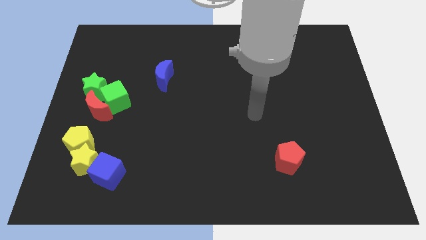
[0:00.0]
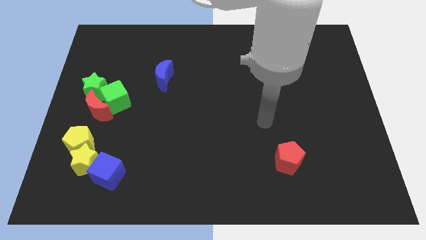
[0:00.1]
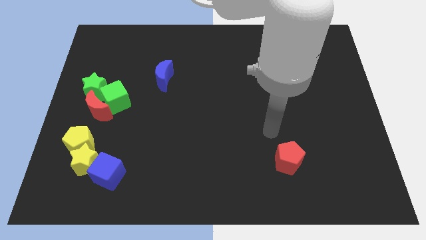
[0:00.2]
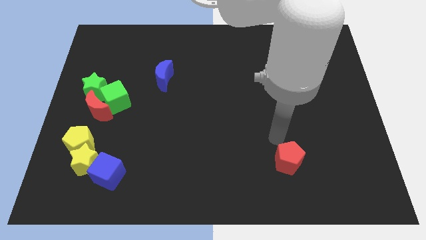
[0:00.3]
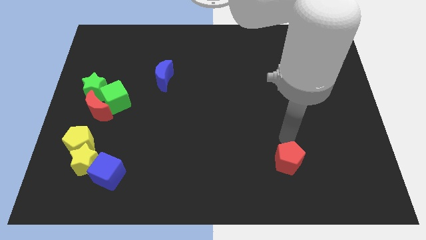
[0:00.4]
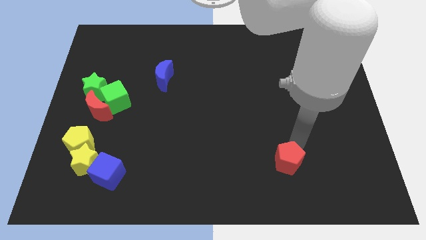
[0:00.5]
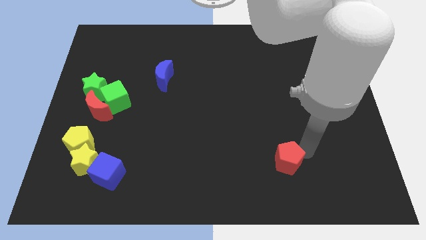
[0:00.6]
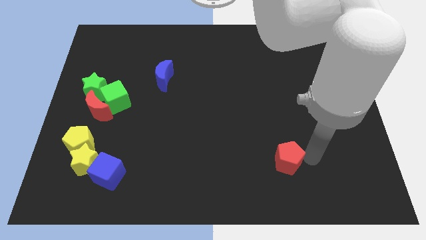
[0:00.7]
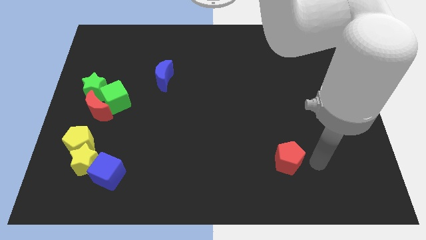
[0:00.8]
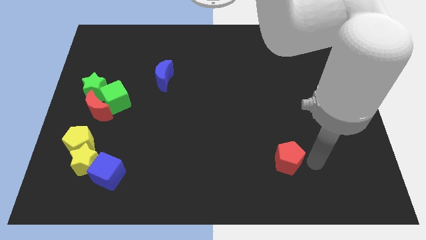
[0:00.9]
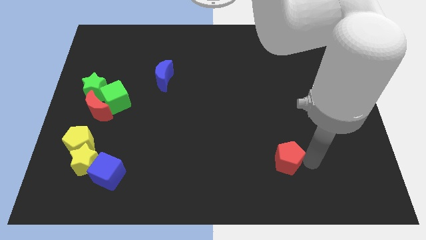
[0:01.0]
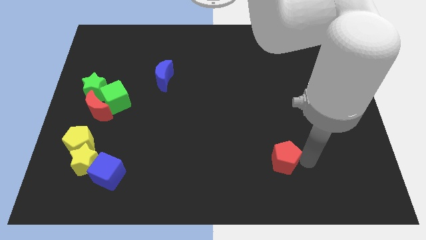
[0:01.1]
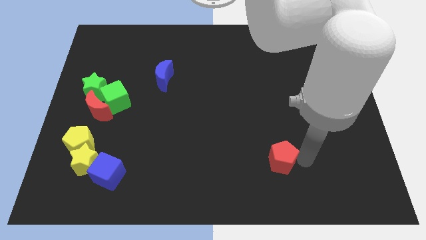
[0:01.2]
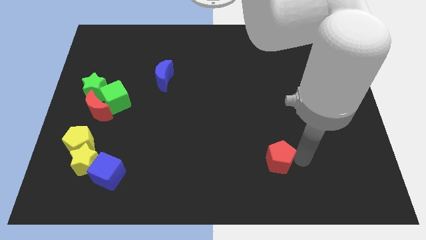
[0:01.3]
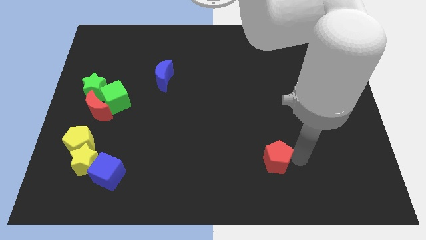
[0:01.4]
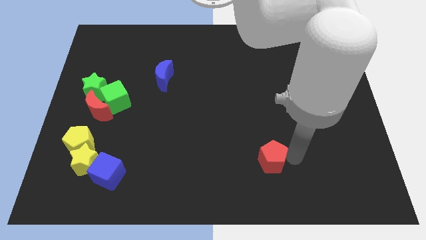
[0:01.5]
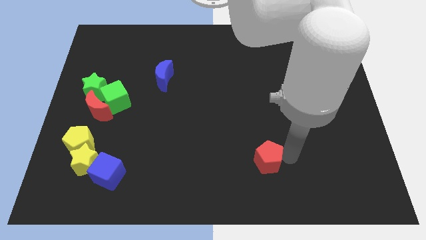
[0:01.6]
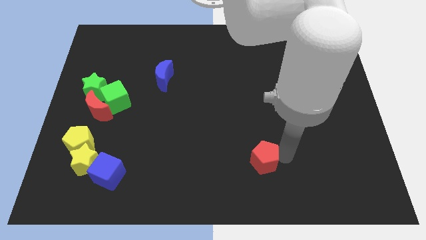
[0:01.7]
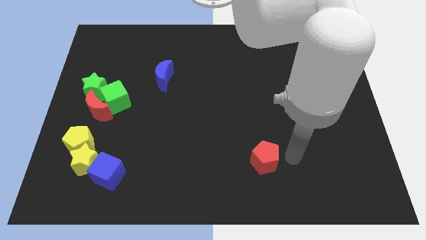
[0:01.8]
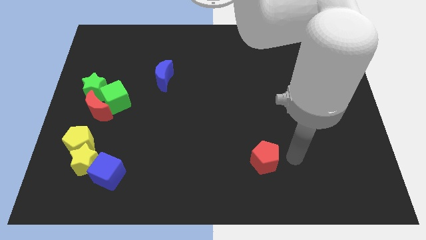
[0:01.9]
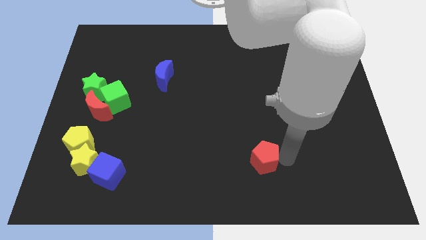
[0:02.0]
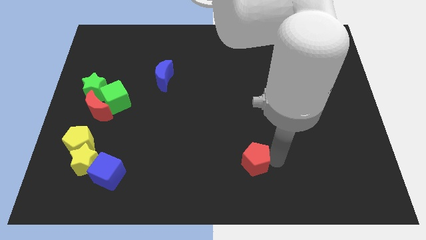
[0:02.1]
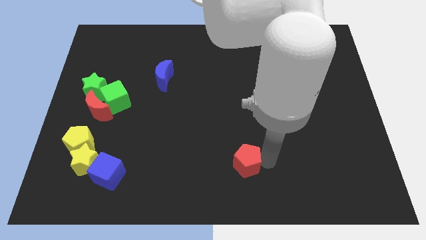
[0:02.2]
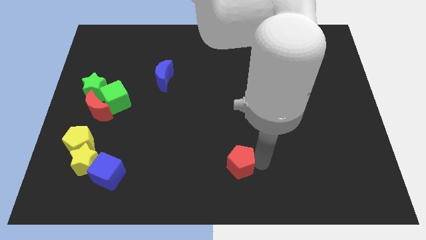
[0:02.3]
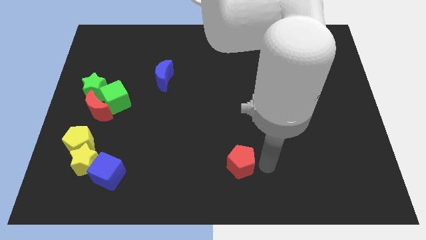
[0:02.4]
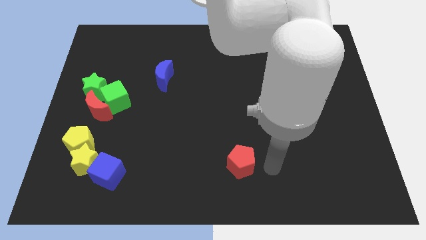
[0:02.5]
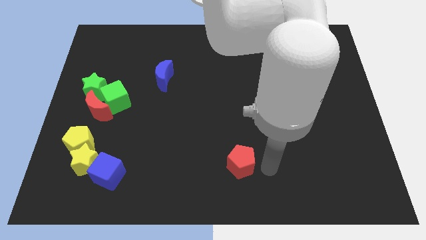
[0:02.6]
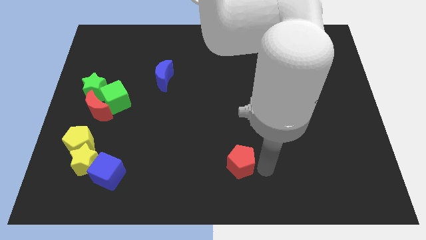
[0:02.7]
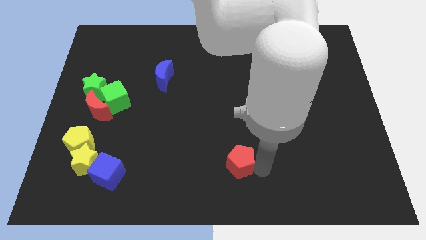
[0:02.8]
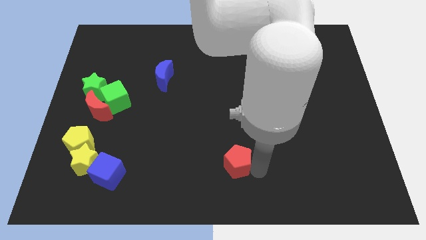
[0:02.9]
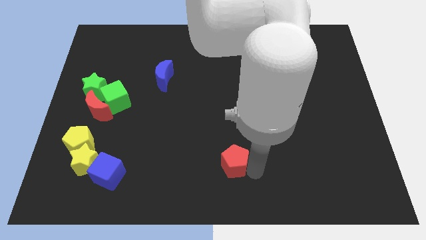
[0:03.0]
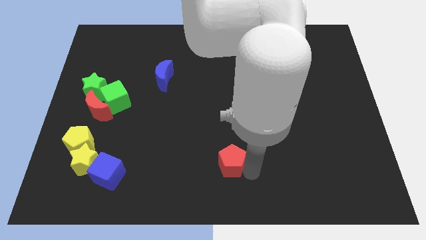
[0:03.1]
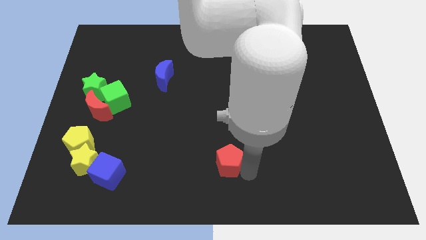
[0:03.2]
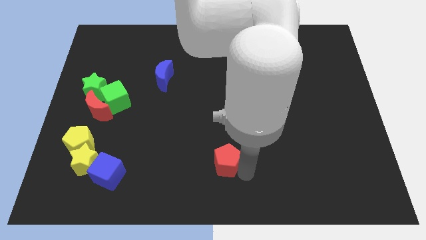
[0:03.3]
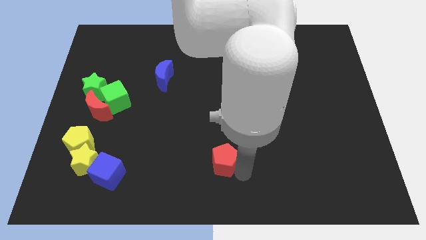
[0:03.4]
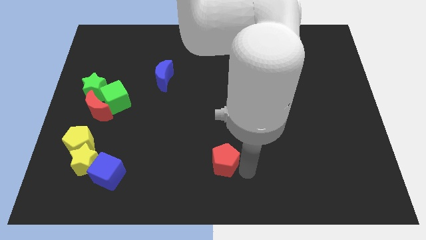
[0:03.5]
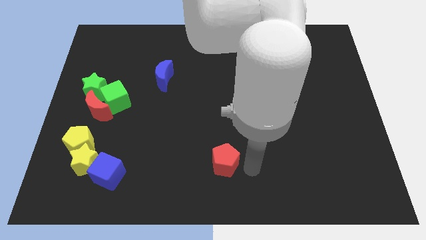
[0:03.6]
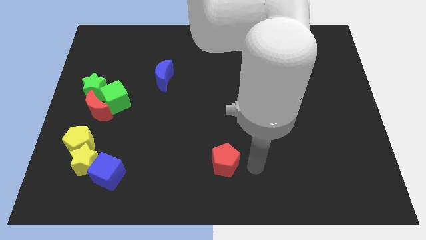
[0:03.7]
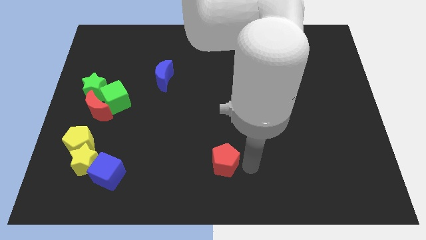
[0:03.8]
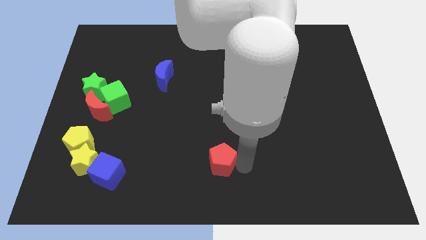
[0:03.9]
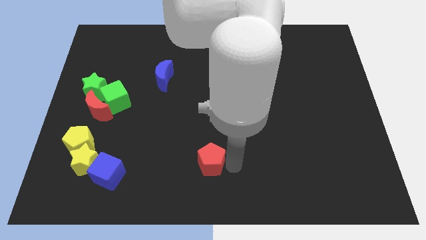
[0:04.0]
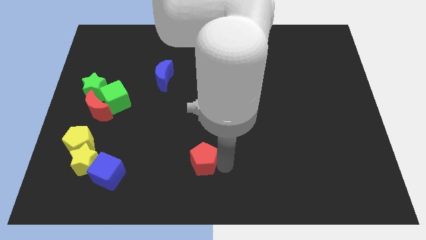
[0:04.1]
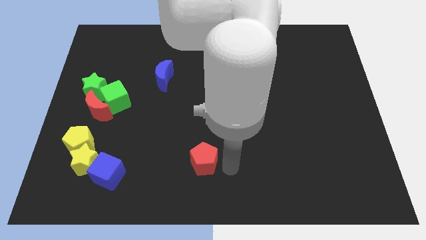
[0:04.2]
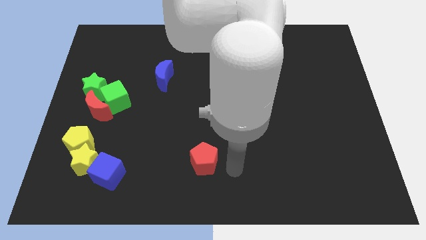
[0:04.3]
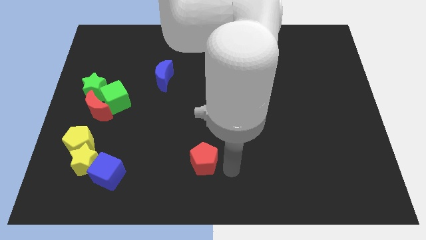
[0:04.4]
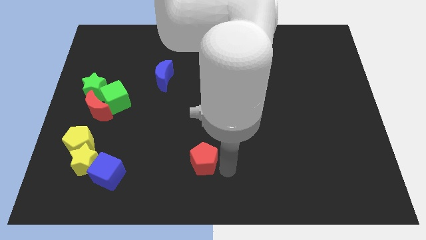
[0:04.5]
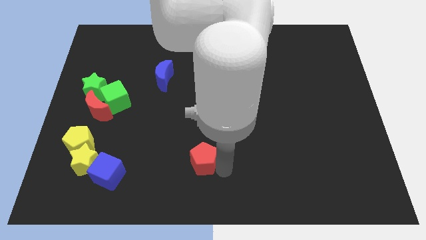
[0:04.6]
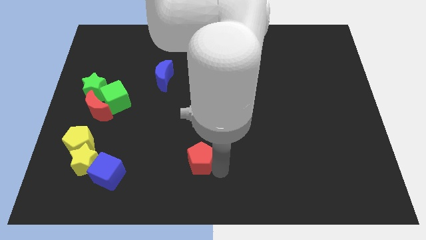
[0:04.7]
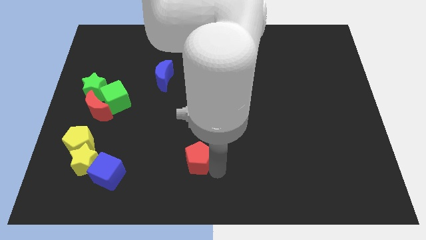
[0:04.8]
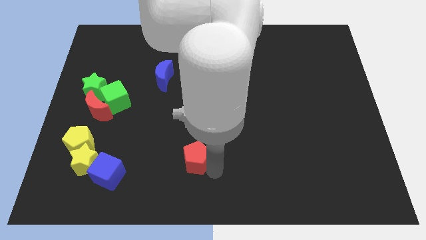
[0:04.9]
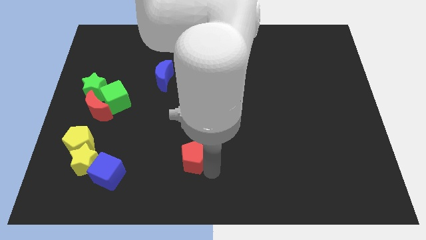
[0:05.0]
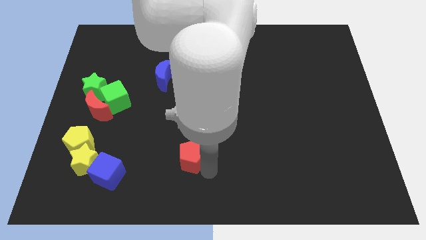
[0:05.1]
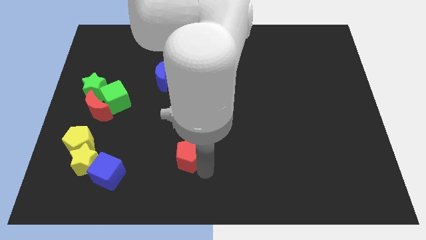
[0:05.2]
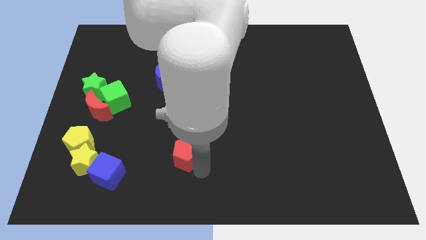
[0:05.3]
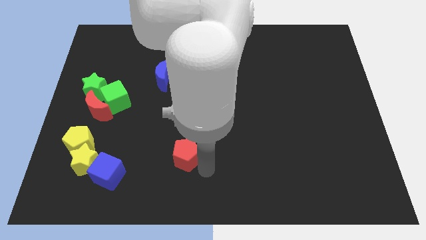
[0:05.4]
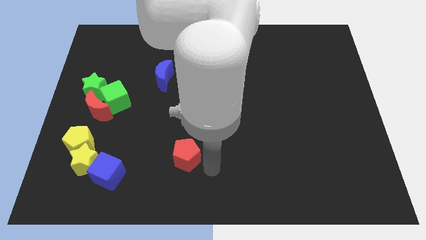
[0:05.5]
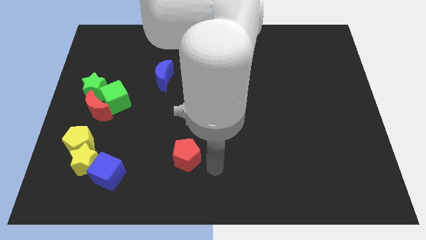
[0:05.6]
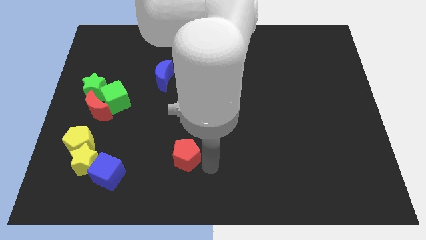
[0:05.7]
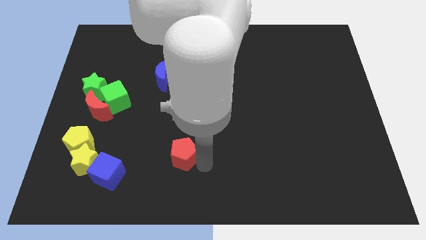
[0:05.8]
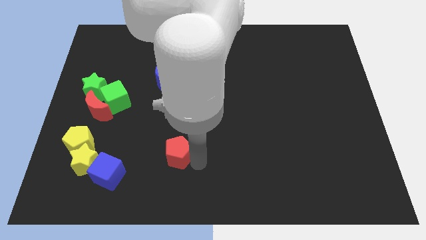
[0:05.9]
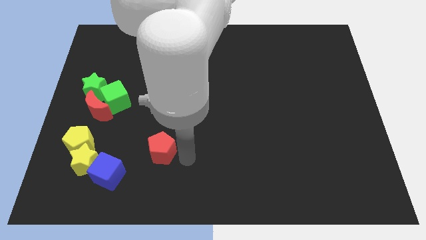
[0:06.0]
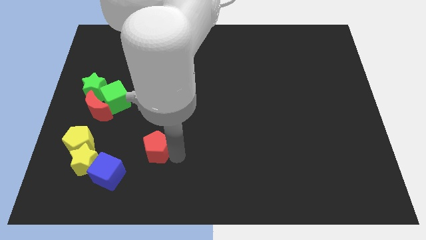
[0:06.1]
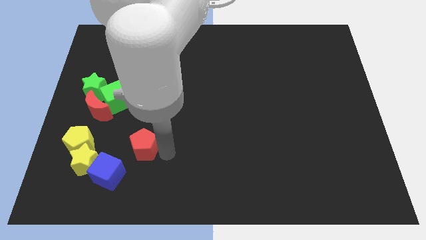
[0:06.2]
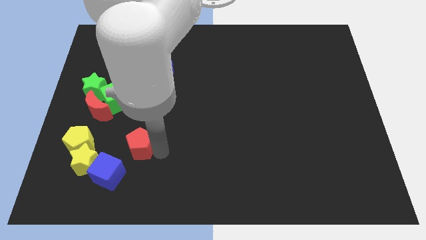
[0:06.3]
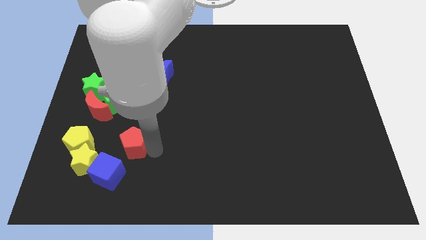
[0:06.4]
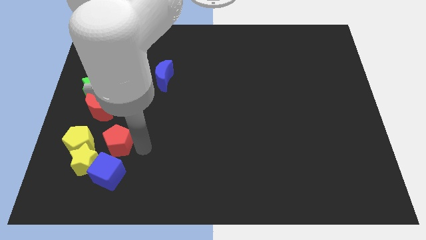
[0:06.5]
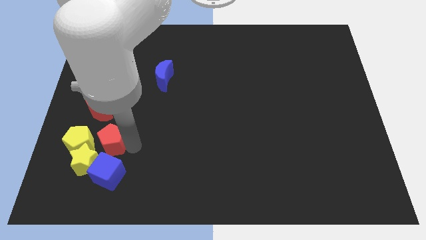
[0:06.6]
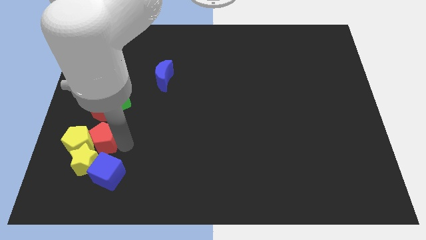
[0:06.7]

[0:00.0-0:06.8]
put the red pentagon next to the yellow pentagon
